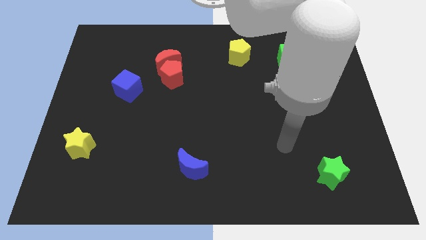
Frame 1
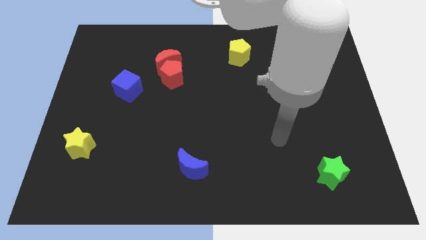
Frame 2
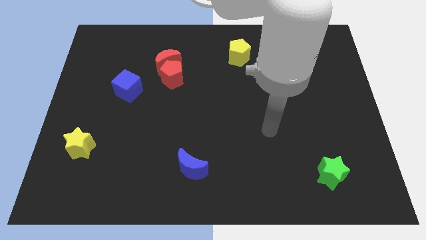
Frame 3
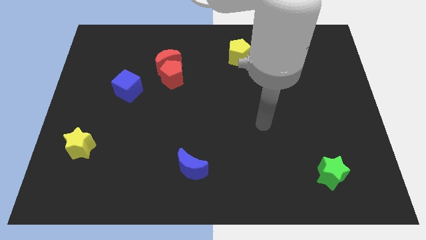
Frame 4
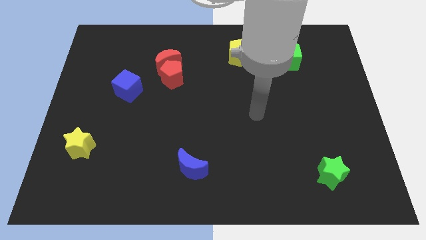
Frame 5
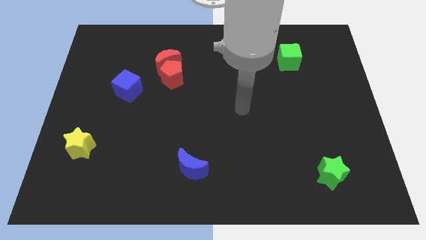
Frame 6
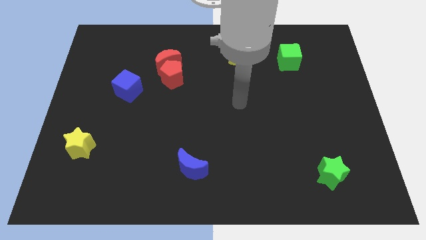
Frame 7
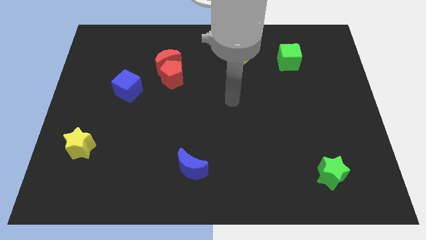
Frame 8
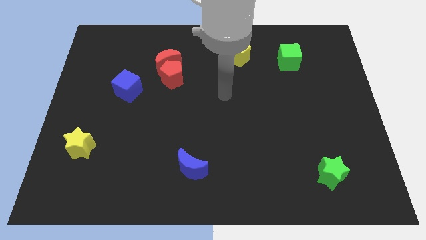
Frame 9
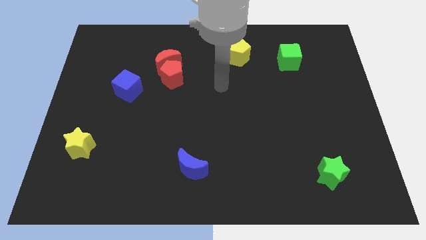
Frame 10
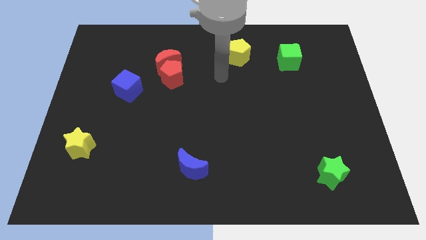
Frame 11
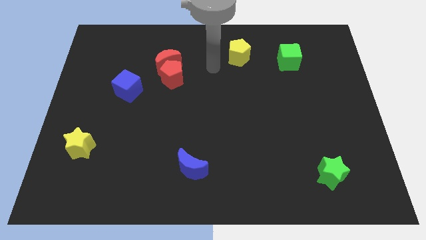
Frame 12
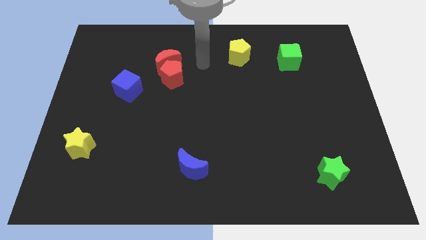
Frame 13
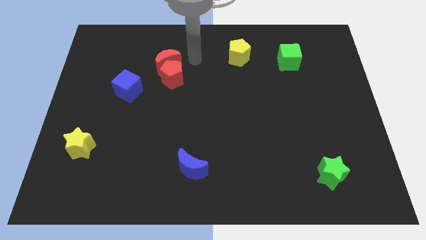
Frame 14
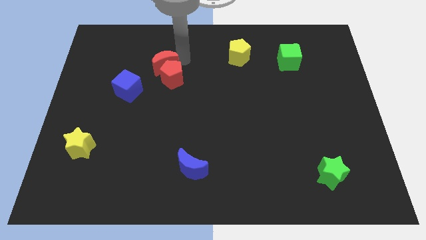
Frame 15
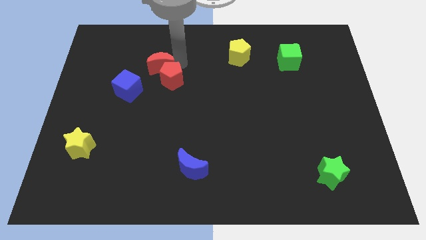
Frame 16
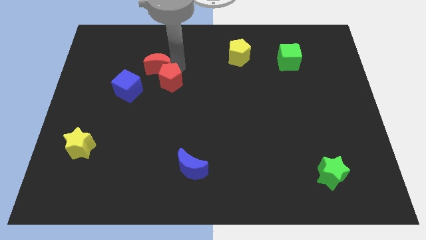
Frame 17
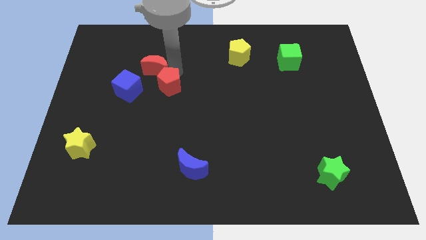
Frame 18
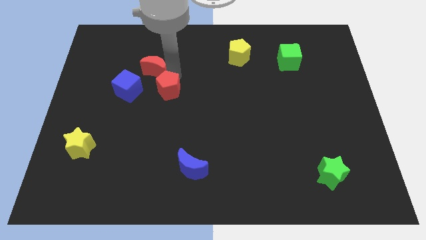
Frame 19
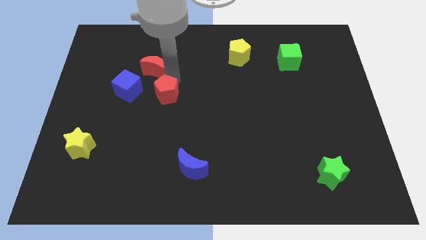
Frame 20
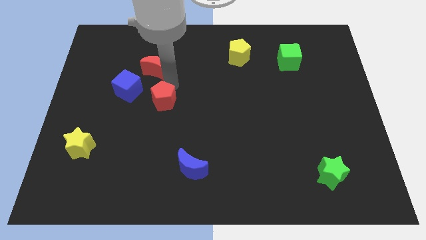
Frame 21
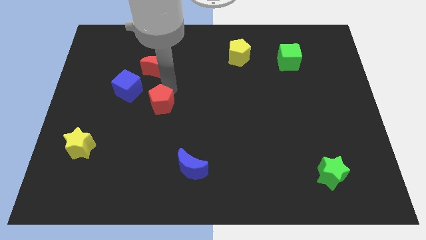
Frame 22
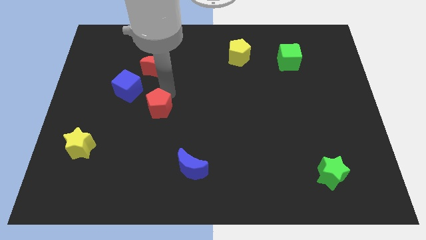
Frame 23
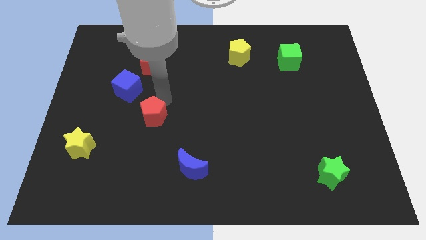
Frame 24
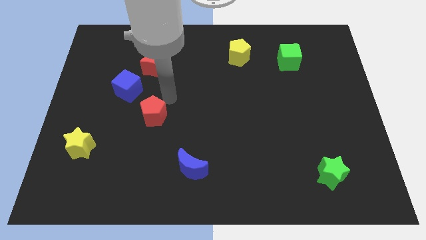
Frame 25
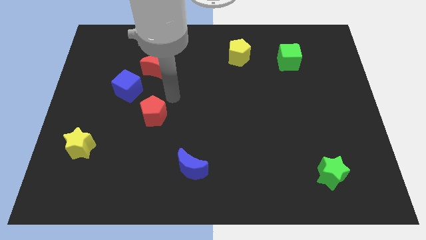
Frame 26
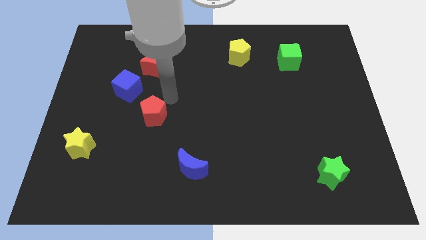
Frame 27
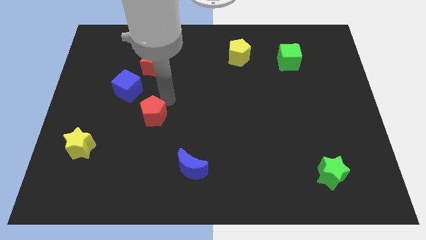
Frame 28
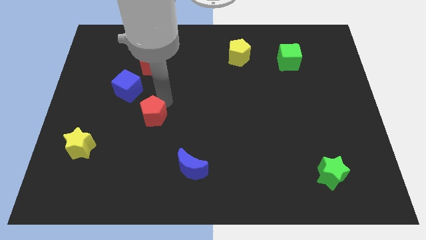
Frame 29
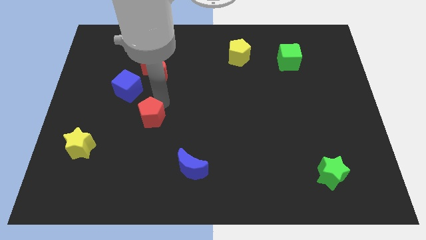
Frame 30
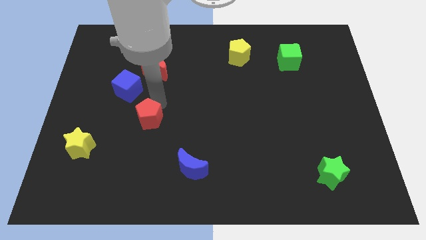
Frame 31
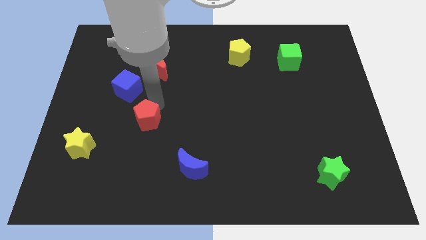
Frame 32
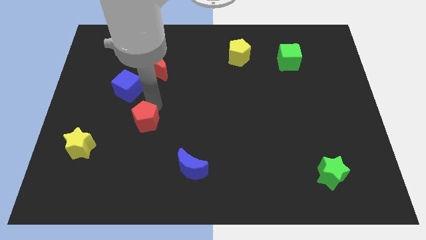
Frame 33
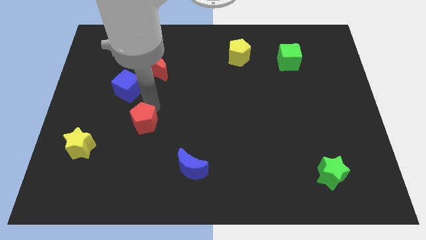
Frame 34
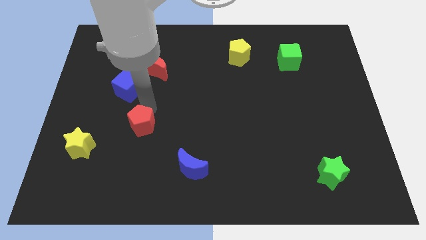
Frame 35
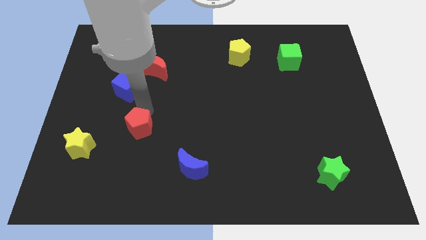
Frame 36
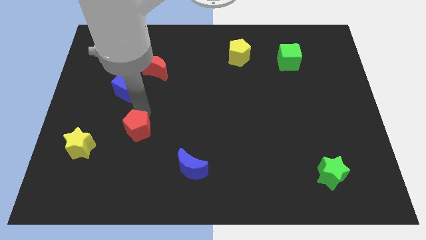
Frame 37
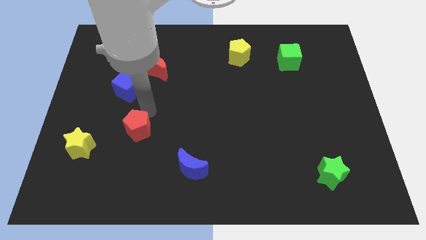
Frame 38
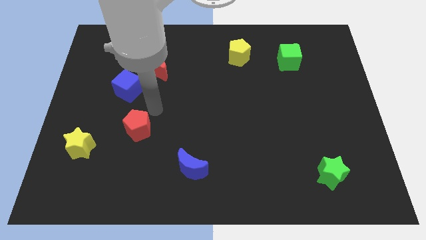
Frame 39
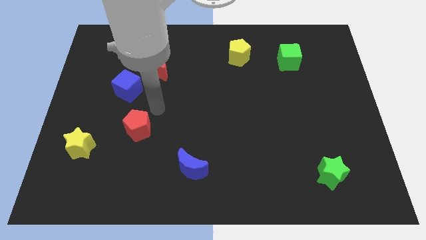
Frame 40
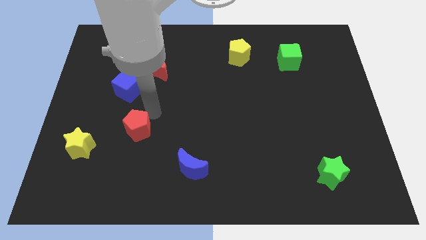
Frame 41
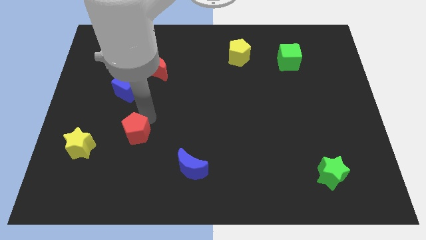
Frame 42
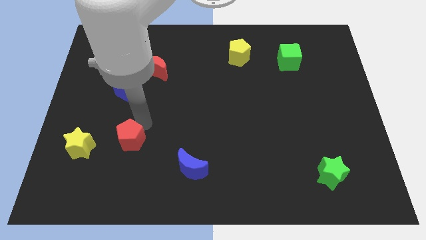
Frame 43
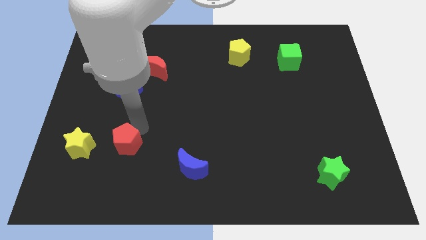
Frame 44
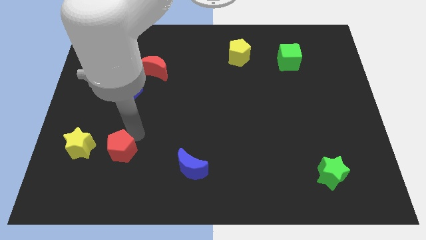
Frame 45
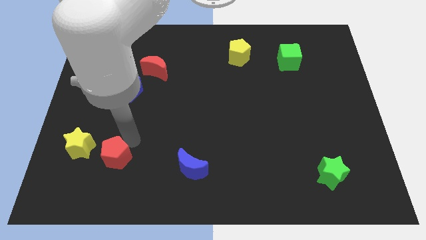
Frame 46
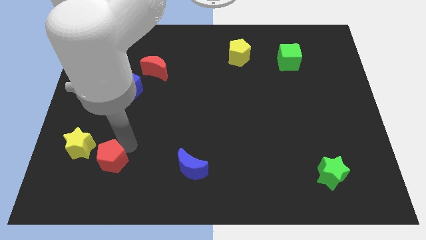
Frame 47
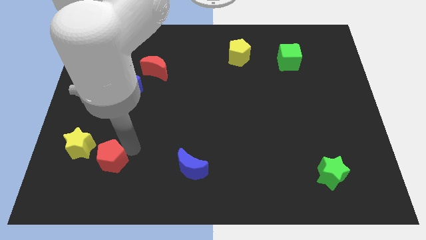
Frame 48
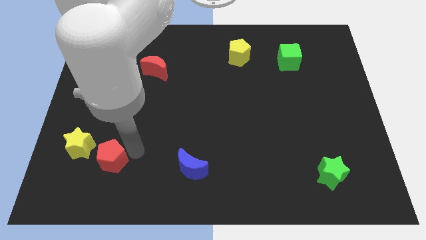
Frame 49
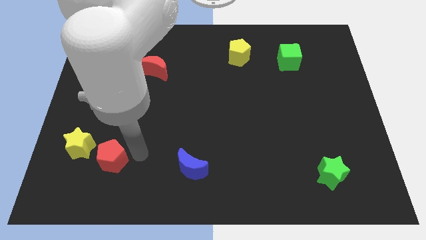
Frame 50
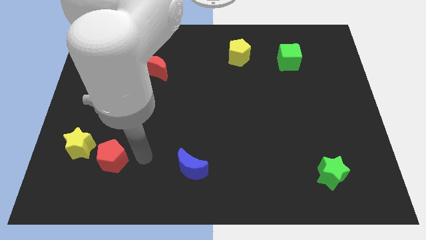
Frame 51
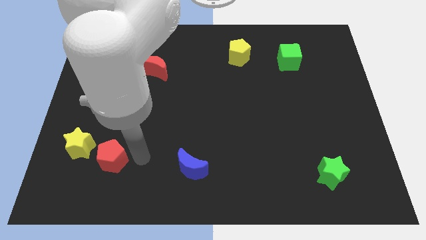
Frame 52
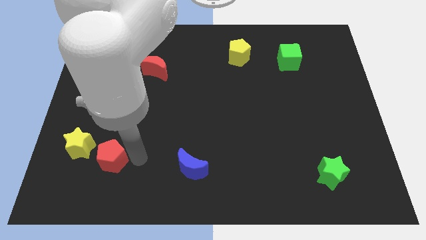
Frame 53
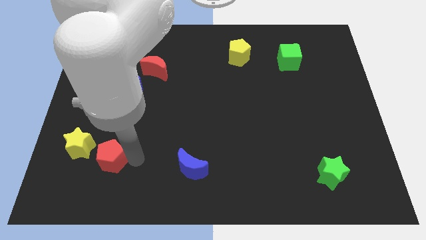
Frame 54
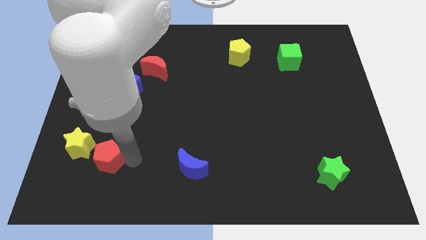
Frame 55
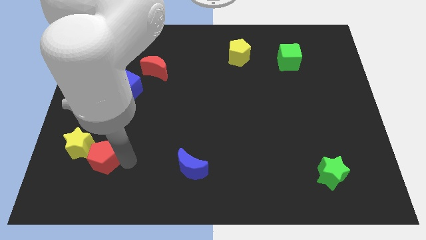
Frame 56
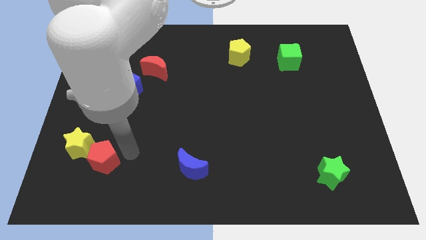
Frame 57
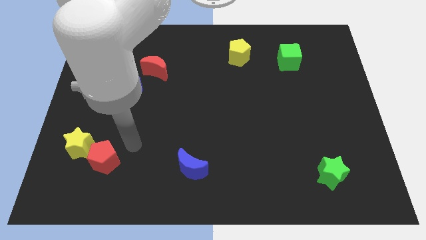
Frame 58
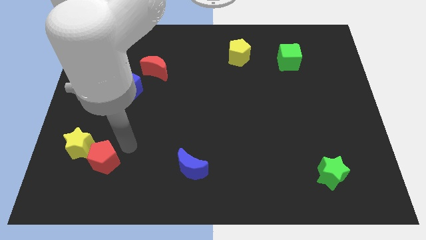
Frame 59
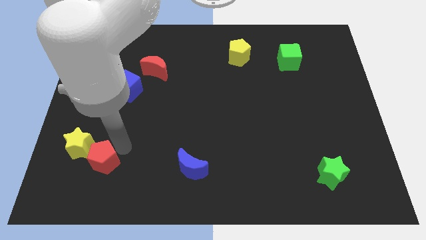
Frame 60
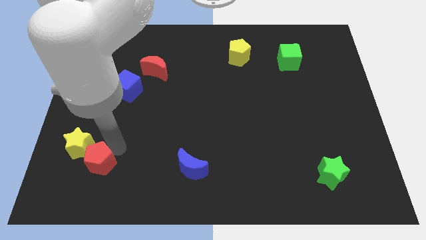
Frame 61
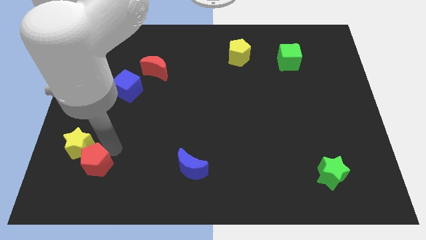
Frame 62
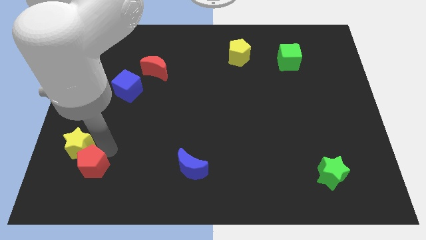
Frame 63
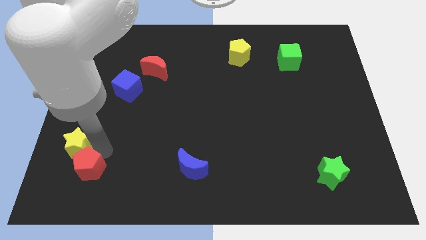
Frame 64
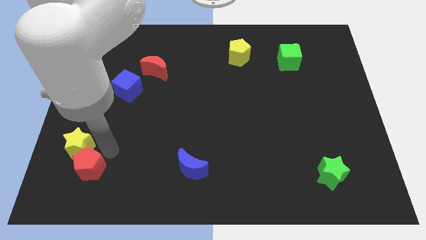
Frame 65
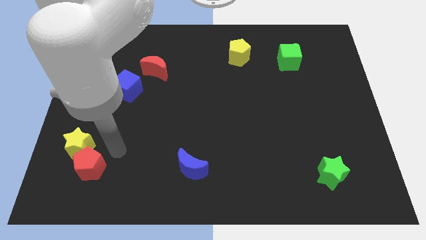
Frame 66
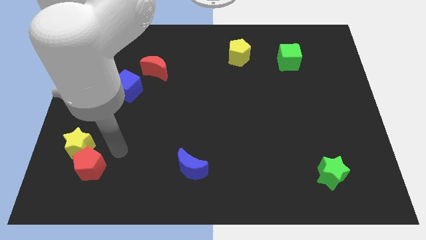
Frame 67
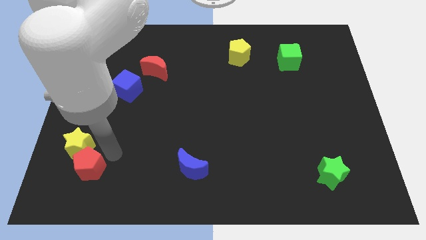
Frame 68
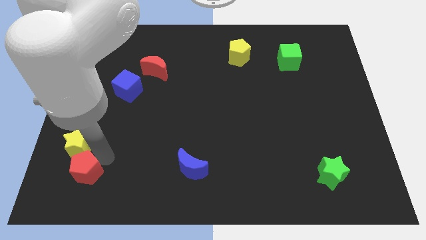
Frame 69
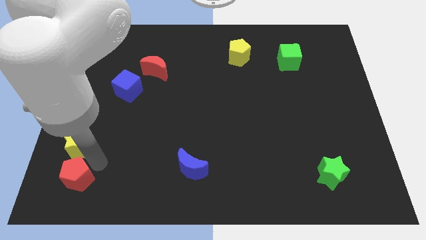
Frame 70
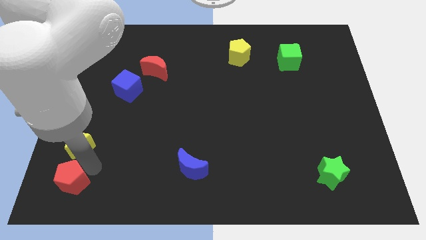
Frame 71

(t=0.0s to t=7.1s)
slide the red pentagon to the bottom left of the board

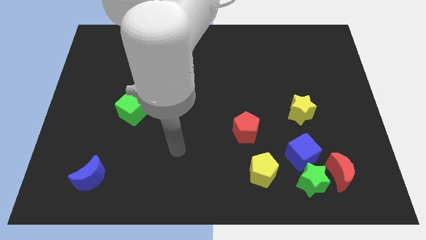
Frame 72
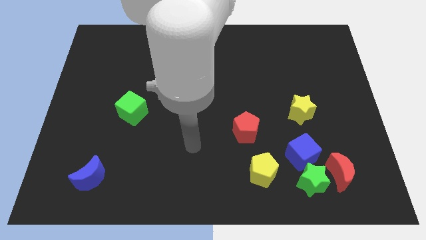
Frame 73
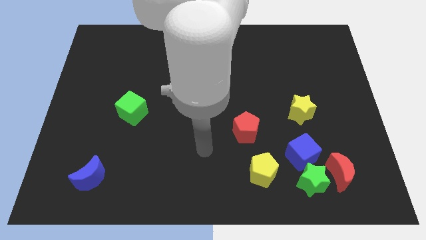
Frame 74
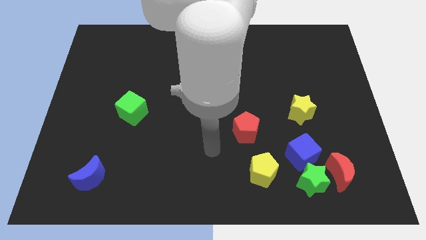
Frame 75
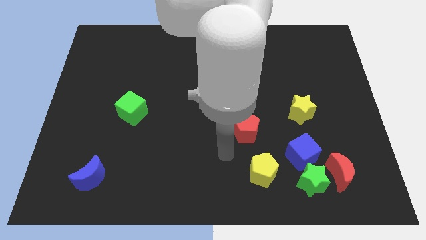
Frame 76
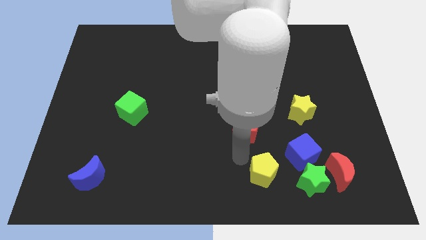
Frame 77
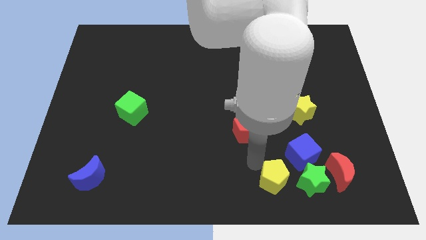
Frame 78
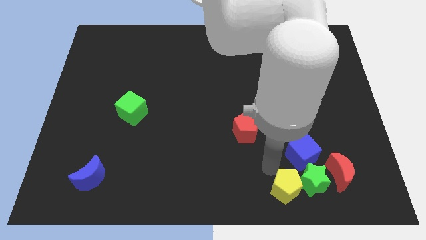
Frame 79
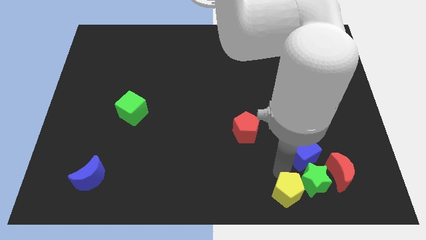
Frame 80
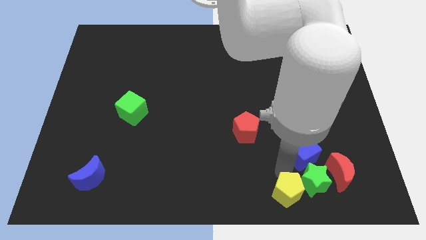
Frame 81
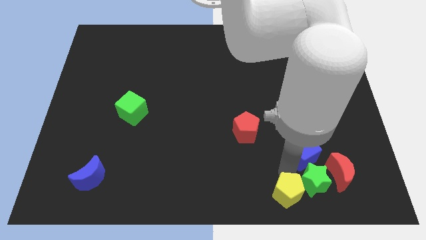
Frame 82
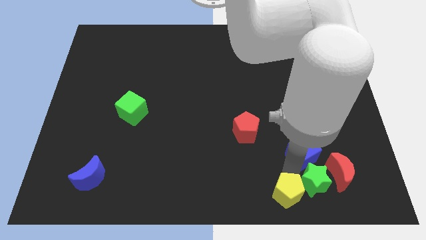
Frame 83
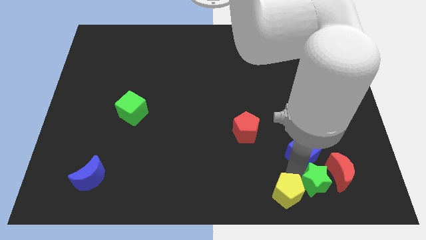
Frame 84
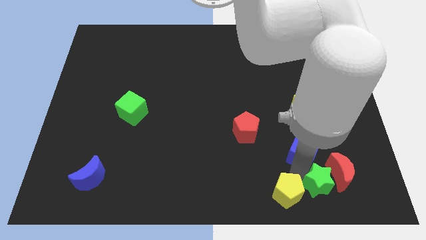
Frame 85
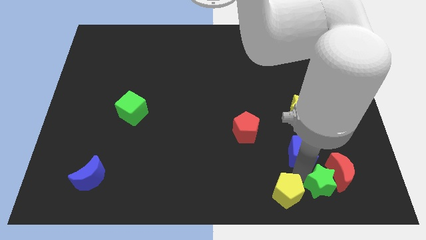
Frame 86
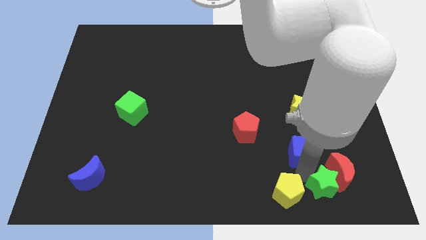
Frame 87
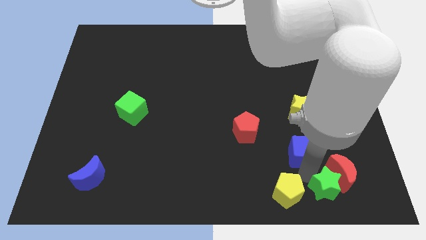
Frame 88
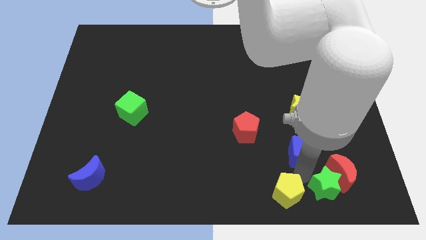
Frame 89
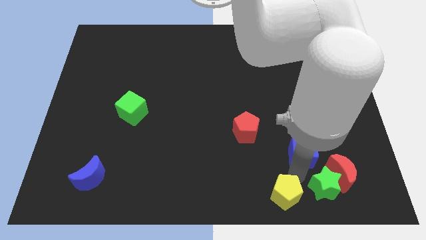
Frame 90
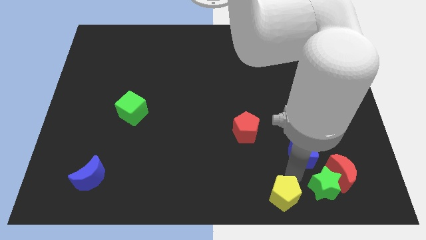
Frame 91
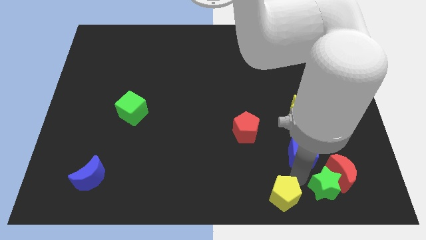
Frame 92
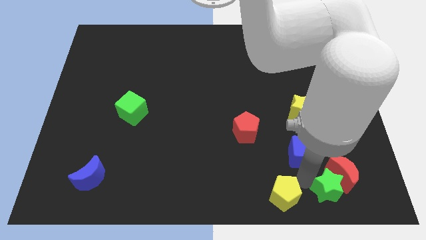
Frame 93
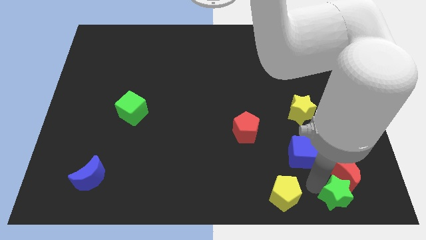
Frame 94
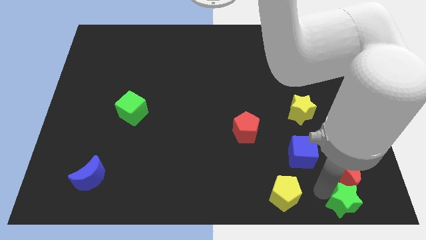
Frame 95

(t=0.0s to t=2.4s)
slide the green star to the bottom right
